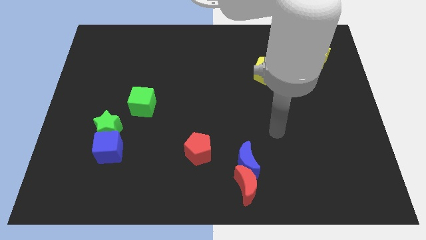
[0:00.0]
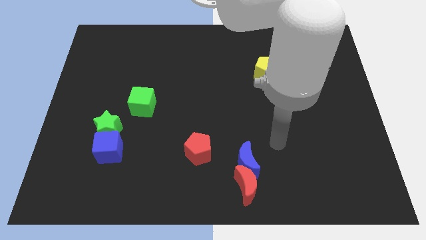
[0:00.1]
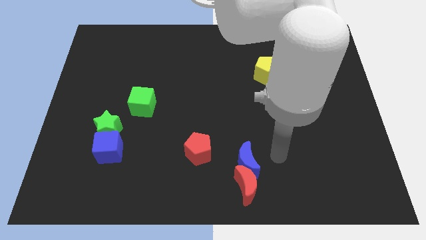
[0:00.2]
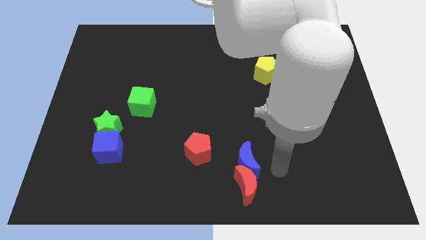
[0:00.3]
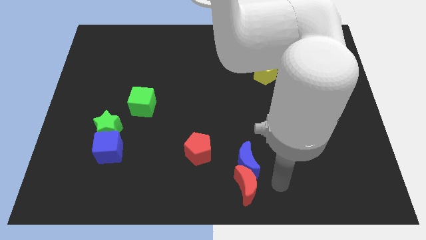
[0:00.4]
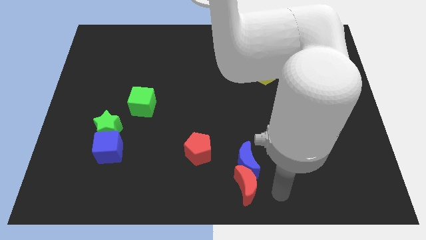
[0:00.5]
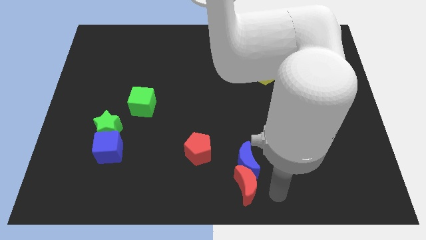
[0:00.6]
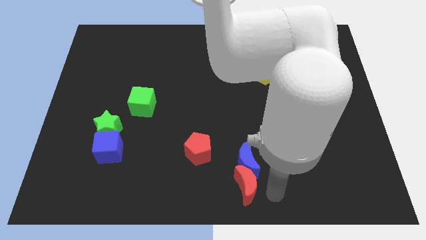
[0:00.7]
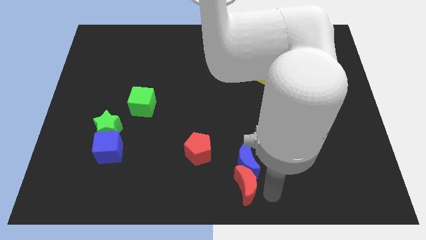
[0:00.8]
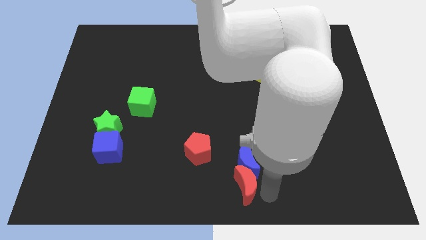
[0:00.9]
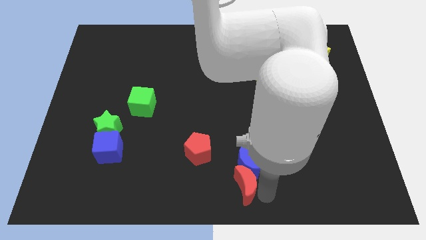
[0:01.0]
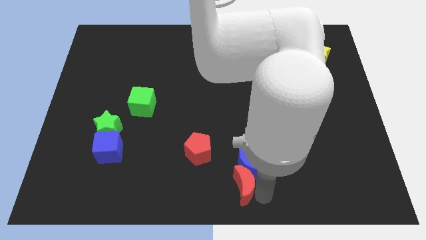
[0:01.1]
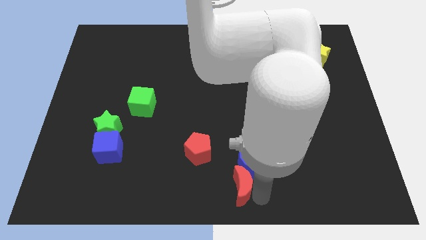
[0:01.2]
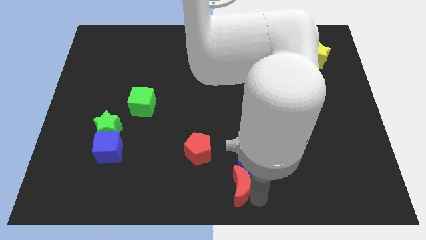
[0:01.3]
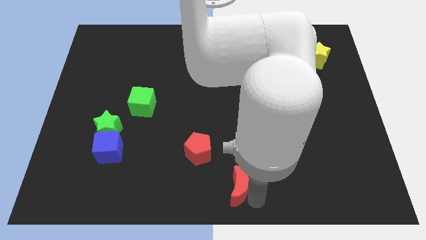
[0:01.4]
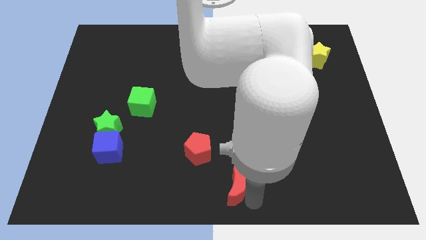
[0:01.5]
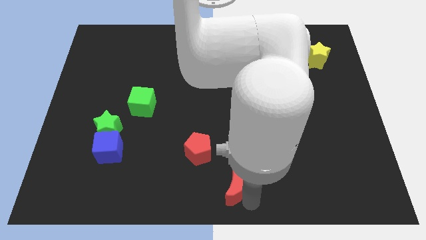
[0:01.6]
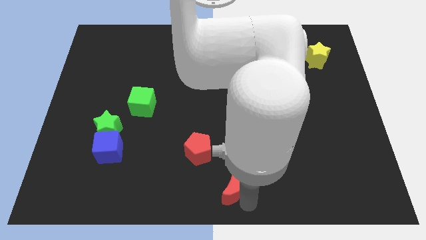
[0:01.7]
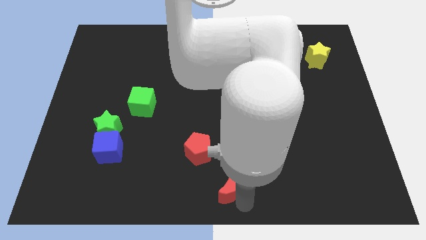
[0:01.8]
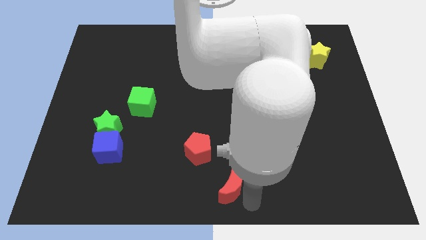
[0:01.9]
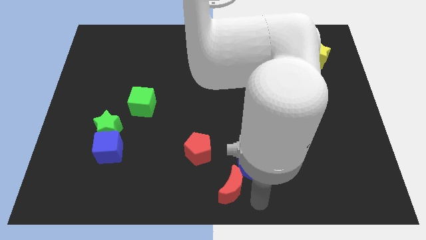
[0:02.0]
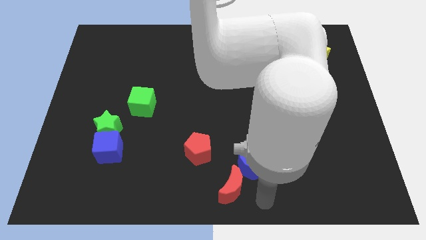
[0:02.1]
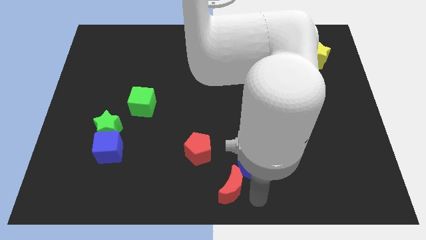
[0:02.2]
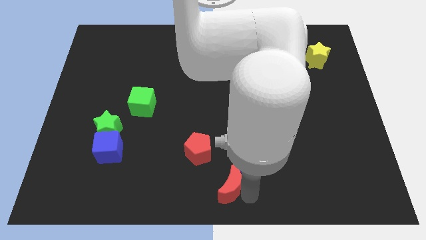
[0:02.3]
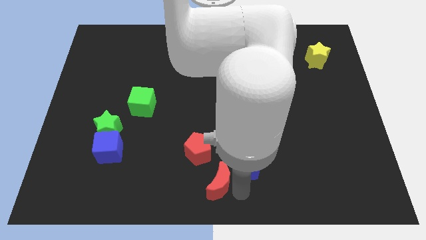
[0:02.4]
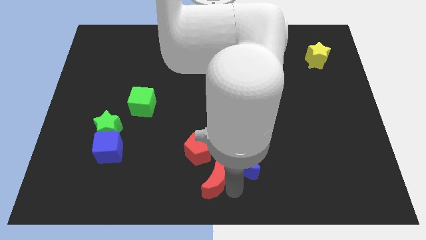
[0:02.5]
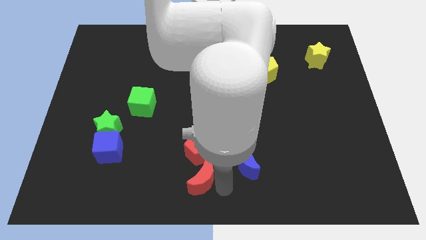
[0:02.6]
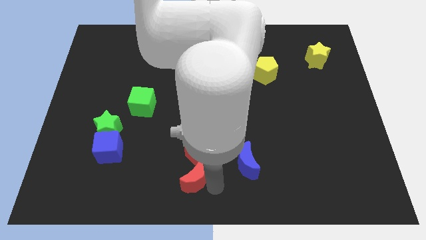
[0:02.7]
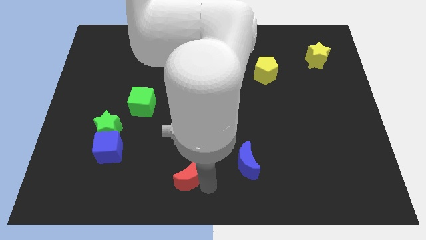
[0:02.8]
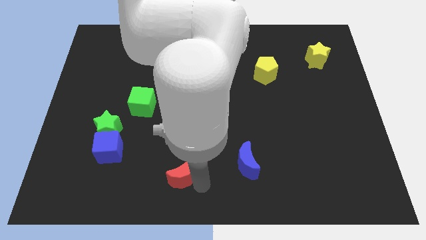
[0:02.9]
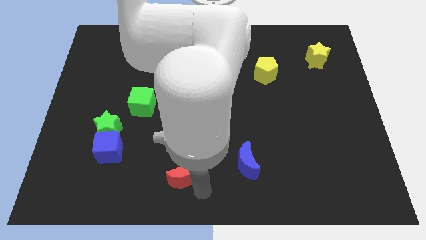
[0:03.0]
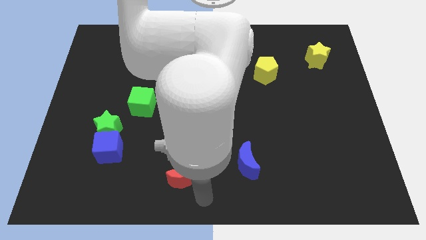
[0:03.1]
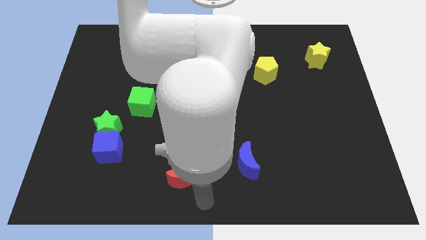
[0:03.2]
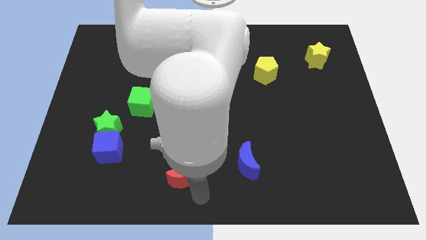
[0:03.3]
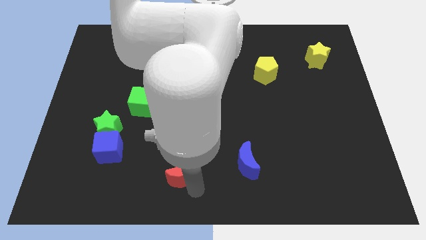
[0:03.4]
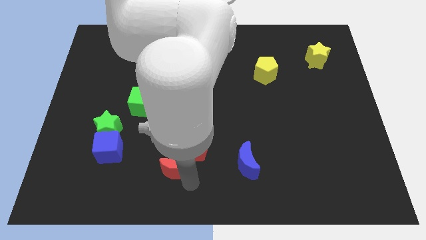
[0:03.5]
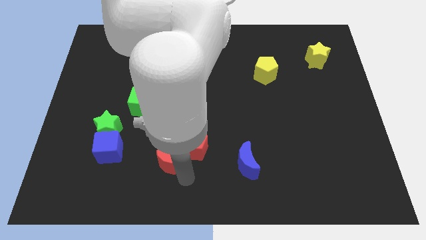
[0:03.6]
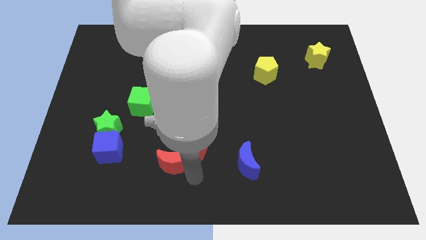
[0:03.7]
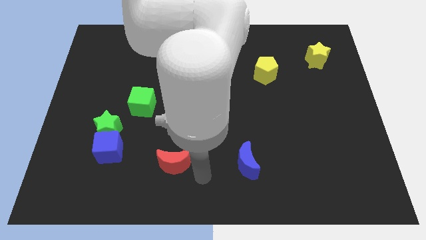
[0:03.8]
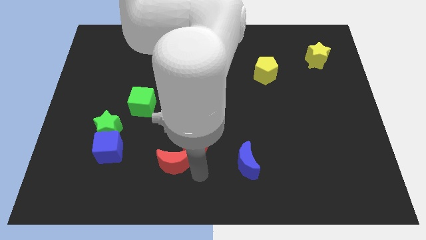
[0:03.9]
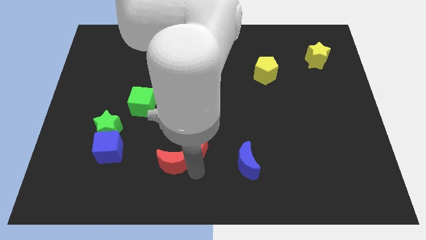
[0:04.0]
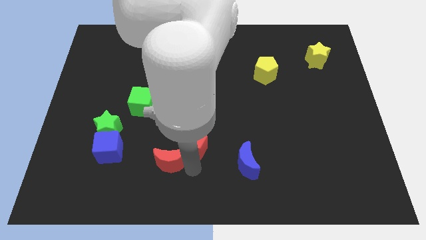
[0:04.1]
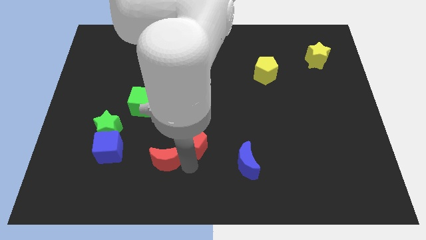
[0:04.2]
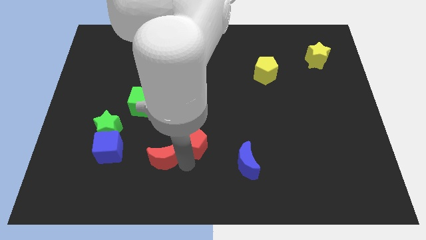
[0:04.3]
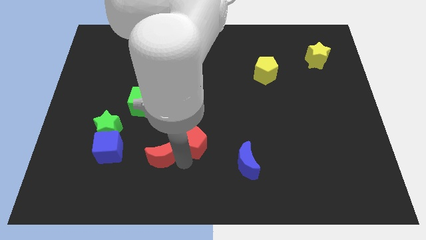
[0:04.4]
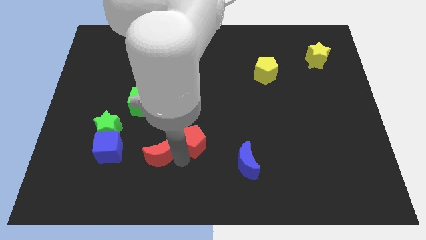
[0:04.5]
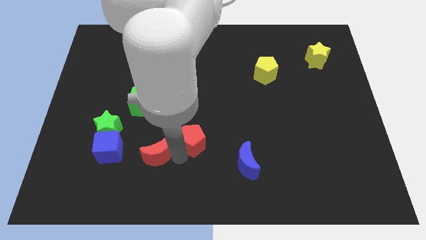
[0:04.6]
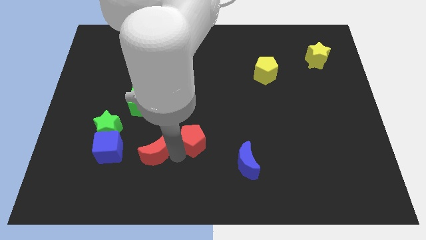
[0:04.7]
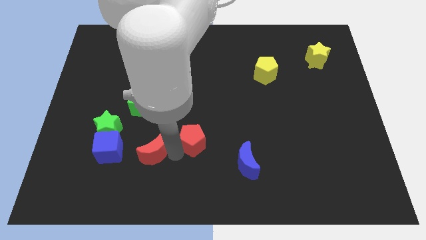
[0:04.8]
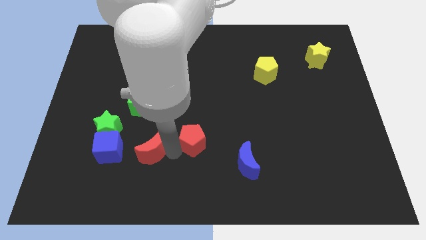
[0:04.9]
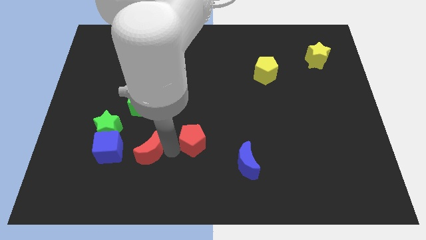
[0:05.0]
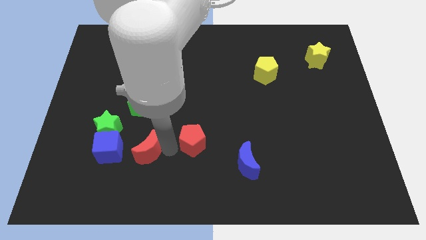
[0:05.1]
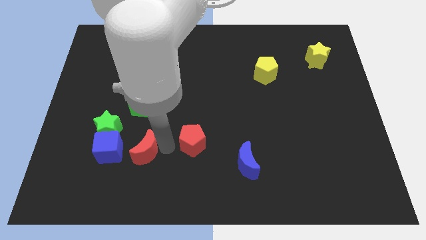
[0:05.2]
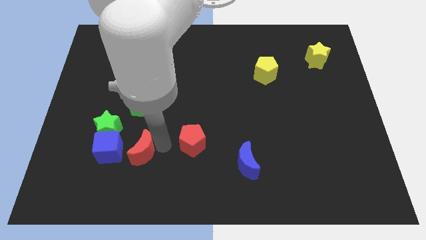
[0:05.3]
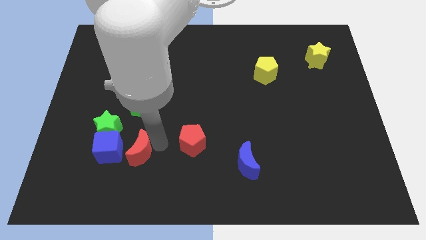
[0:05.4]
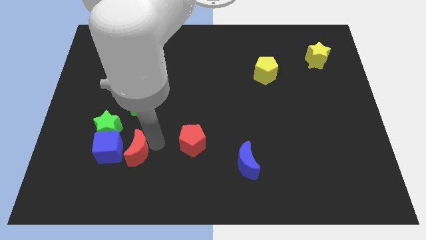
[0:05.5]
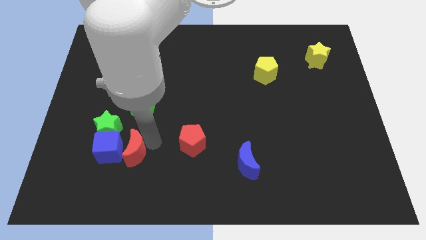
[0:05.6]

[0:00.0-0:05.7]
push the red moon towards the blue cube

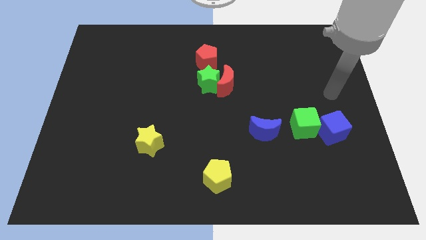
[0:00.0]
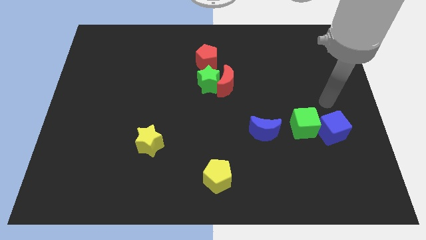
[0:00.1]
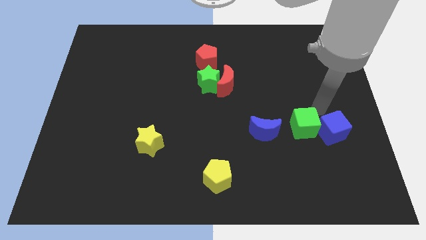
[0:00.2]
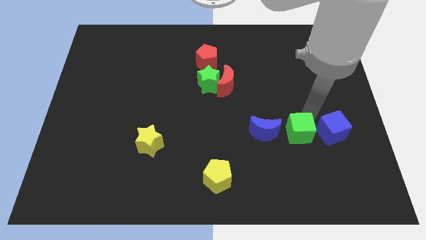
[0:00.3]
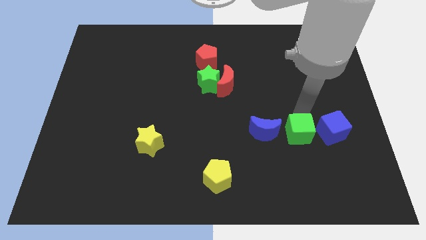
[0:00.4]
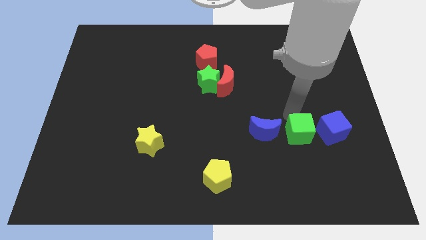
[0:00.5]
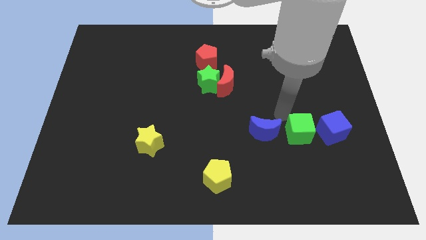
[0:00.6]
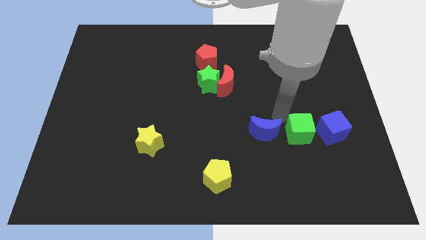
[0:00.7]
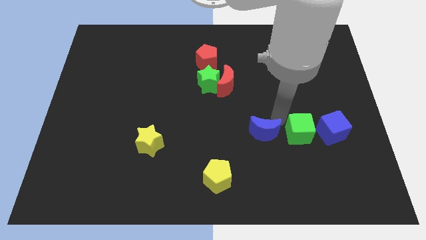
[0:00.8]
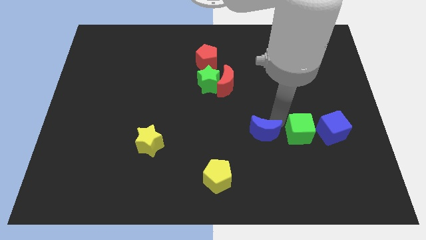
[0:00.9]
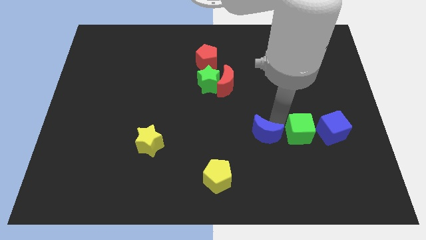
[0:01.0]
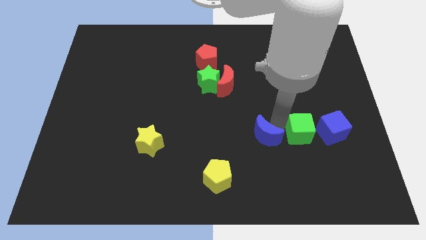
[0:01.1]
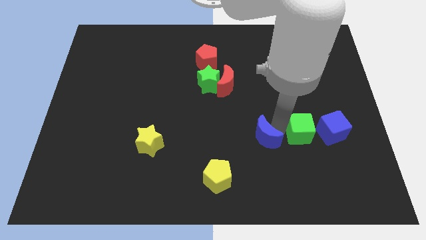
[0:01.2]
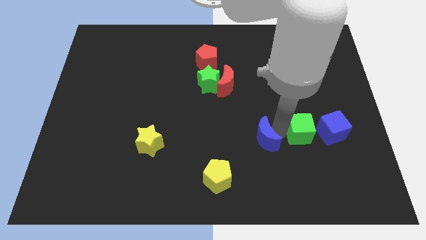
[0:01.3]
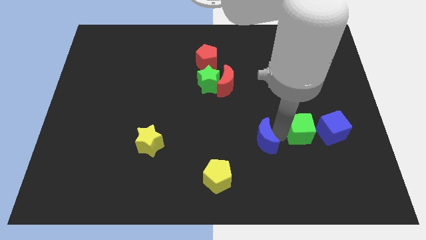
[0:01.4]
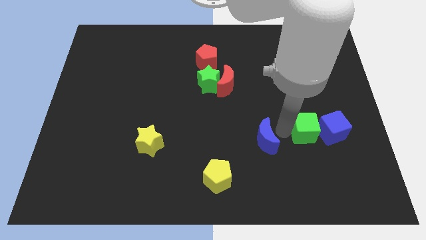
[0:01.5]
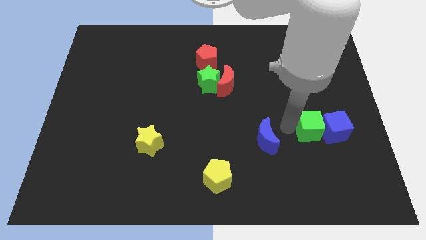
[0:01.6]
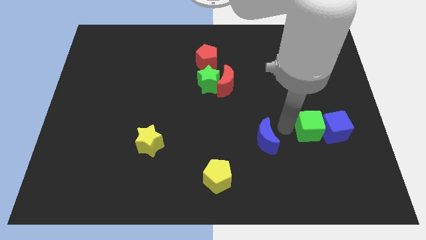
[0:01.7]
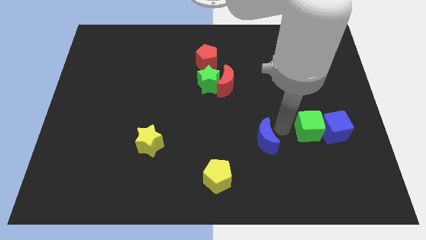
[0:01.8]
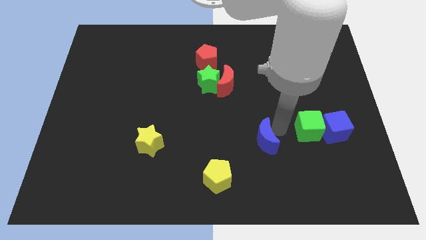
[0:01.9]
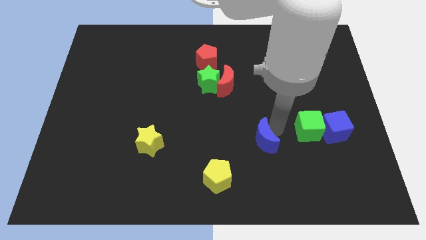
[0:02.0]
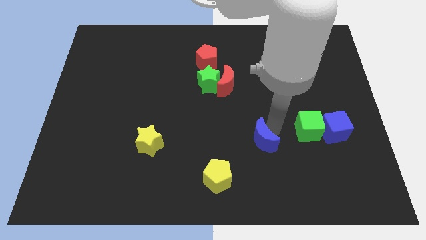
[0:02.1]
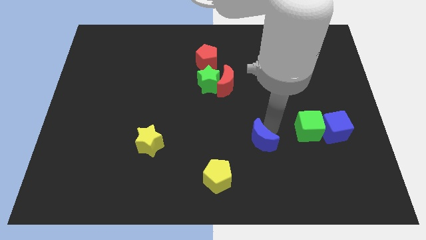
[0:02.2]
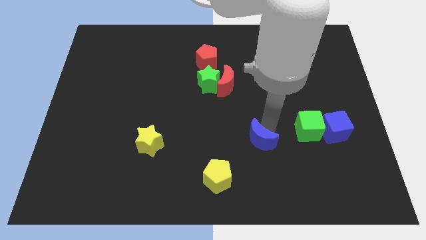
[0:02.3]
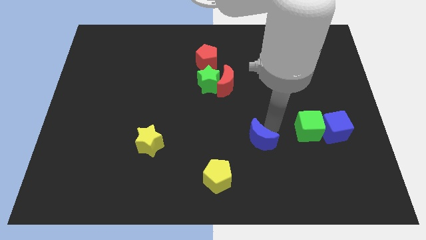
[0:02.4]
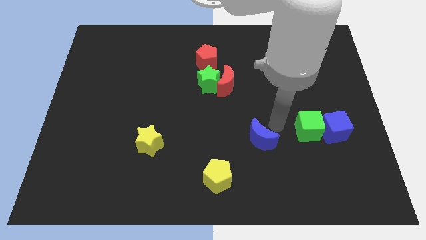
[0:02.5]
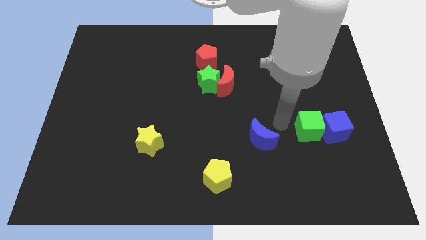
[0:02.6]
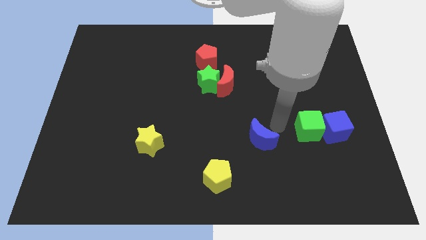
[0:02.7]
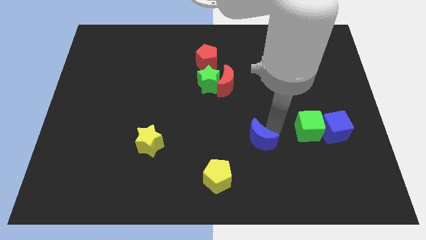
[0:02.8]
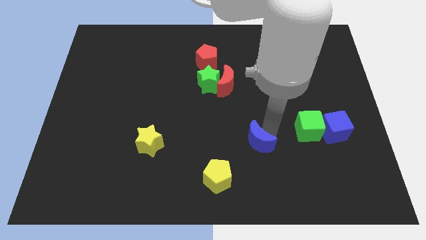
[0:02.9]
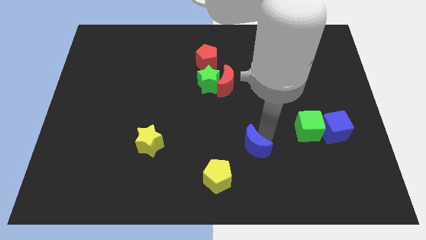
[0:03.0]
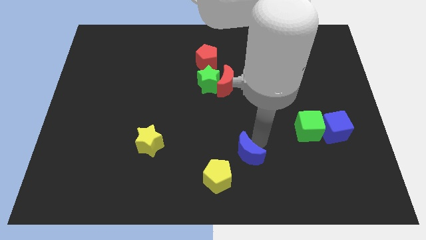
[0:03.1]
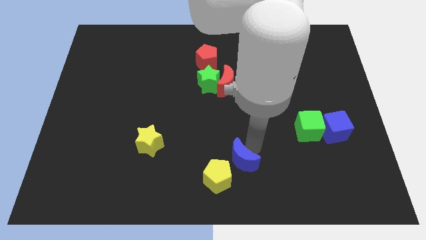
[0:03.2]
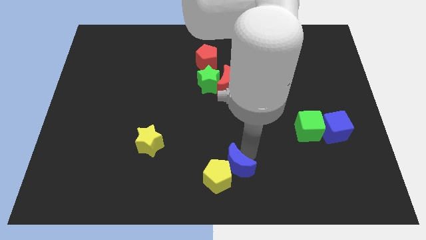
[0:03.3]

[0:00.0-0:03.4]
put the blue moon to the yellow pentagon
